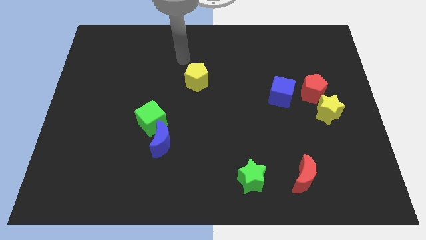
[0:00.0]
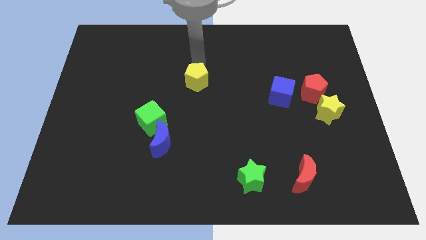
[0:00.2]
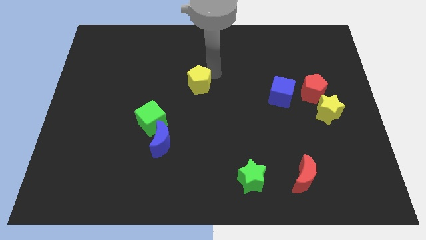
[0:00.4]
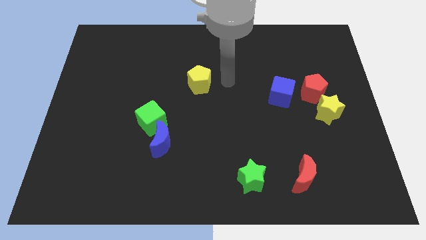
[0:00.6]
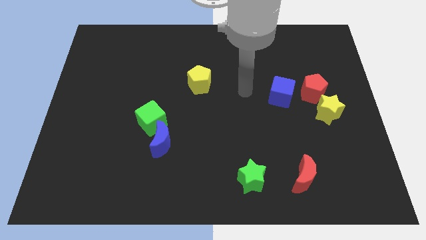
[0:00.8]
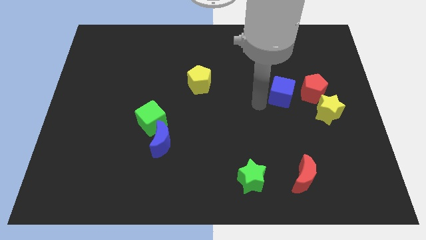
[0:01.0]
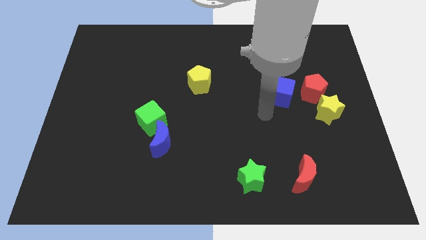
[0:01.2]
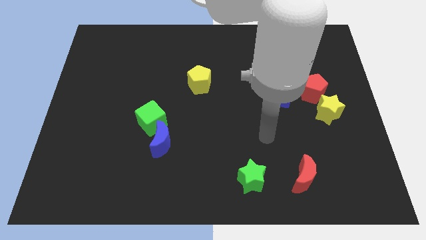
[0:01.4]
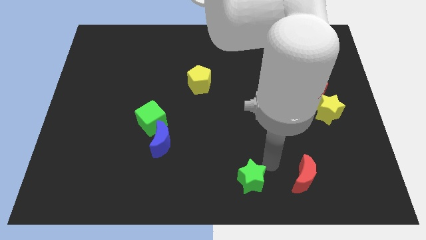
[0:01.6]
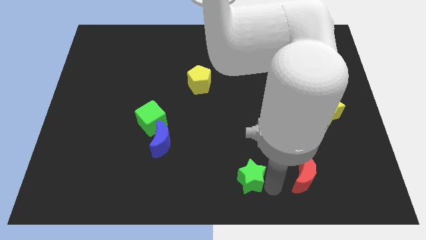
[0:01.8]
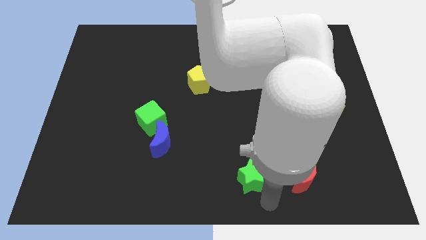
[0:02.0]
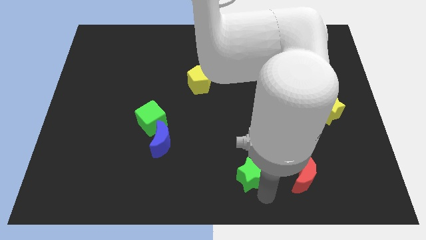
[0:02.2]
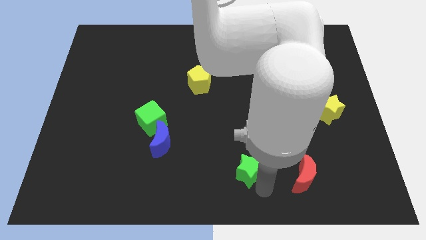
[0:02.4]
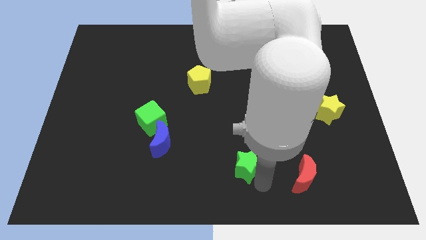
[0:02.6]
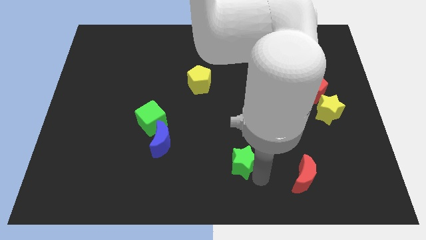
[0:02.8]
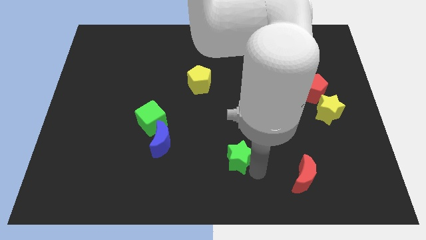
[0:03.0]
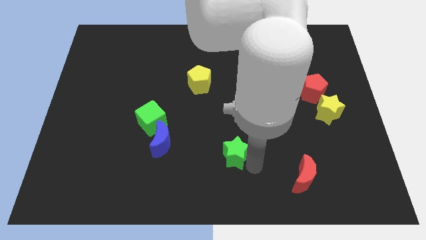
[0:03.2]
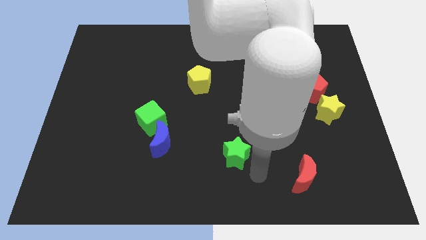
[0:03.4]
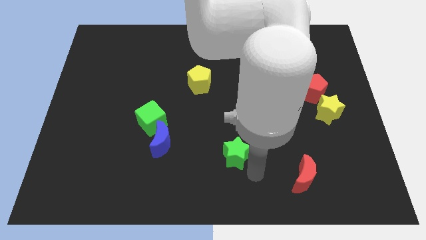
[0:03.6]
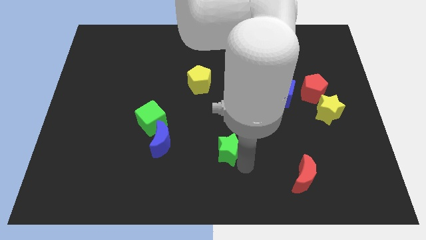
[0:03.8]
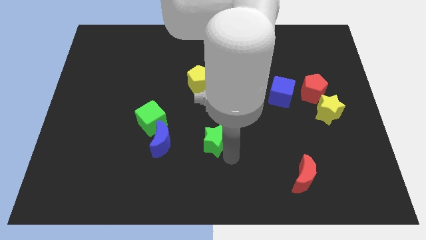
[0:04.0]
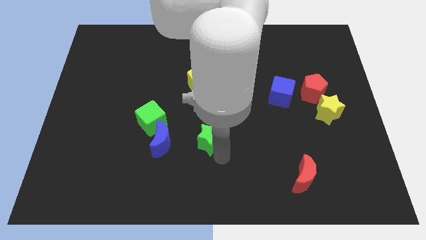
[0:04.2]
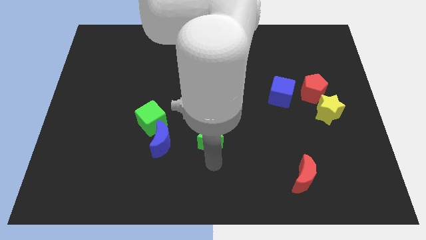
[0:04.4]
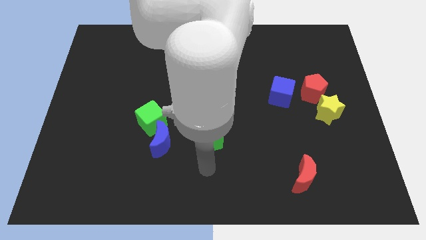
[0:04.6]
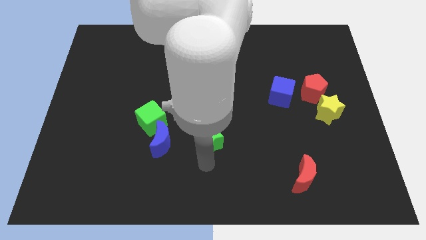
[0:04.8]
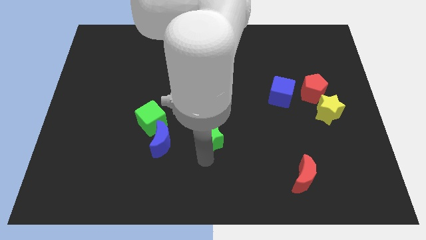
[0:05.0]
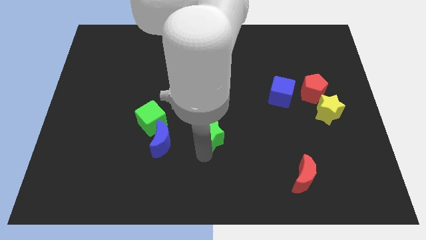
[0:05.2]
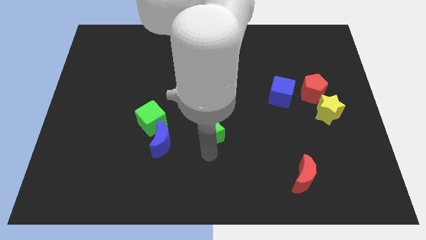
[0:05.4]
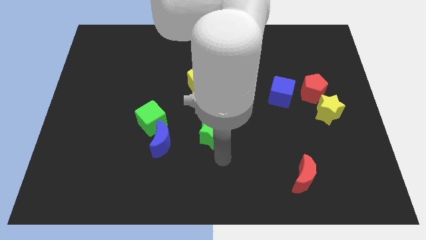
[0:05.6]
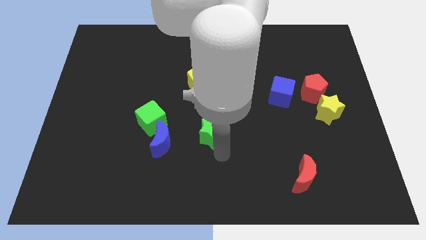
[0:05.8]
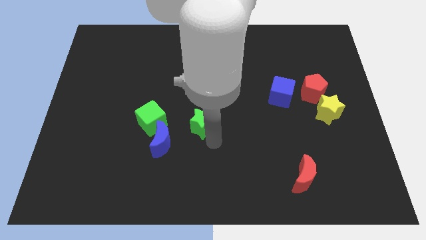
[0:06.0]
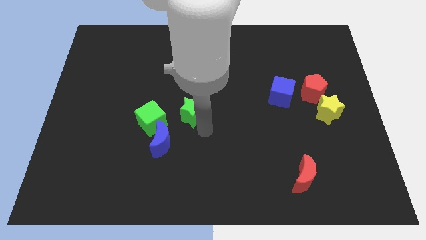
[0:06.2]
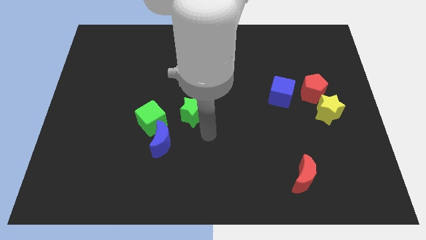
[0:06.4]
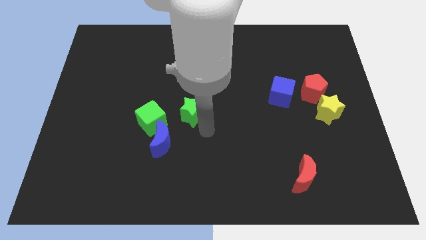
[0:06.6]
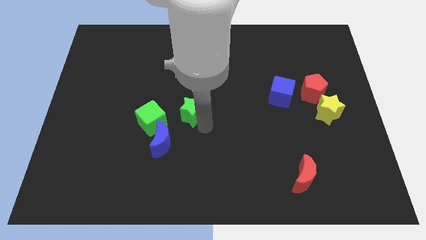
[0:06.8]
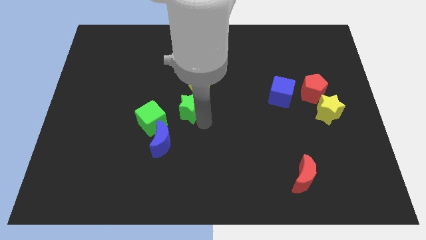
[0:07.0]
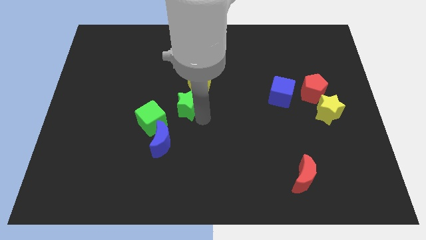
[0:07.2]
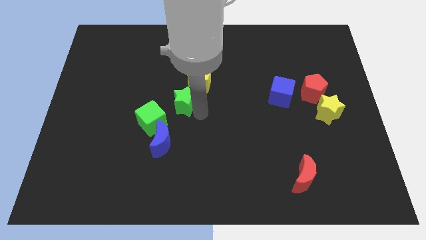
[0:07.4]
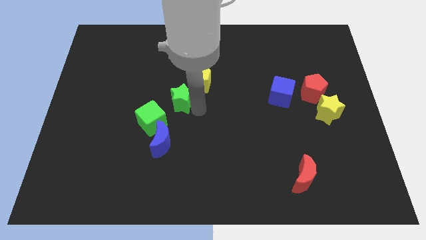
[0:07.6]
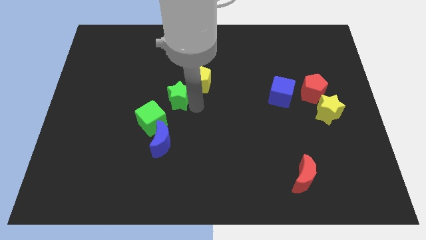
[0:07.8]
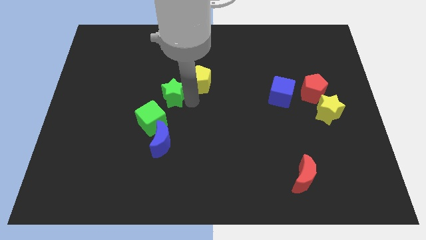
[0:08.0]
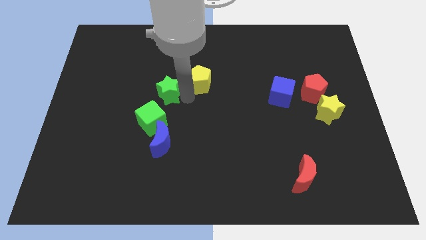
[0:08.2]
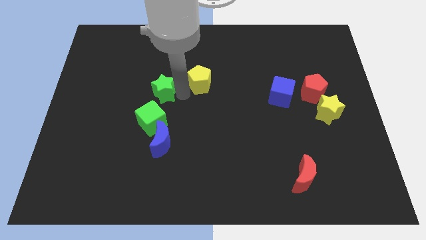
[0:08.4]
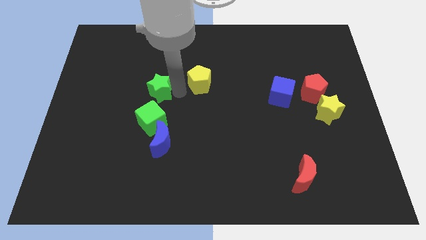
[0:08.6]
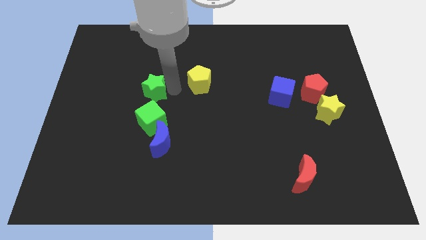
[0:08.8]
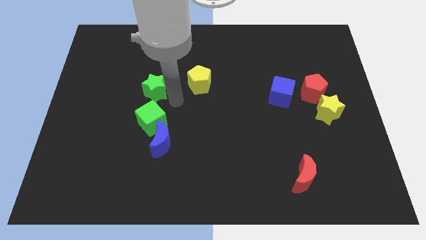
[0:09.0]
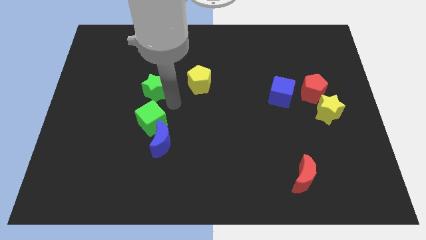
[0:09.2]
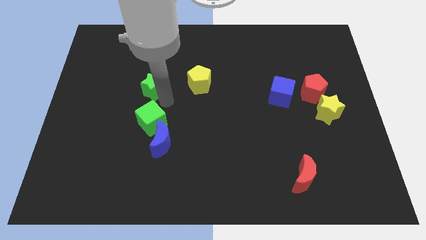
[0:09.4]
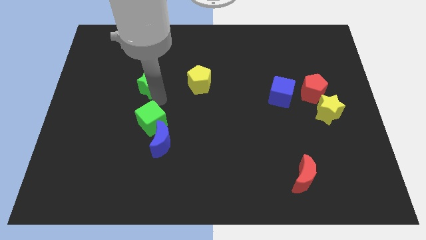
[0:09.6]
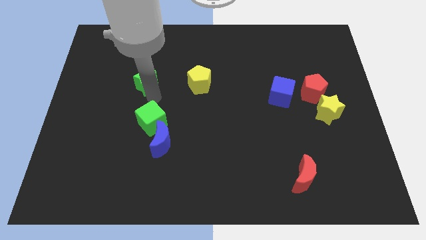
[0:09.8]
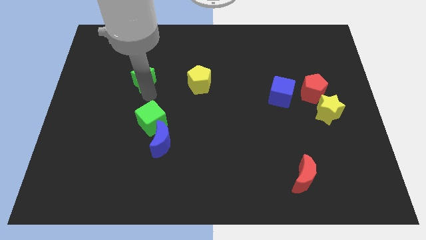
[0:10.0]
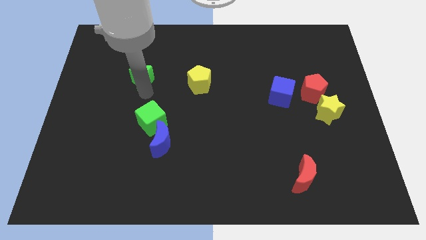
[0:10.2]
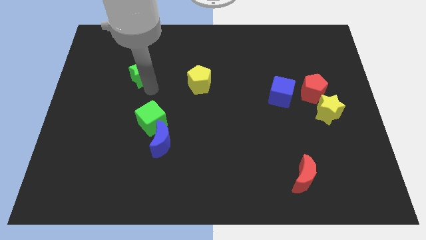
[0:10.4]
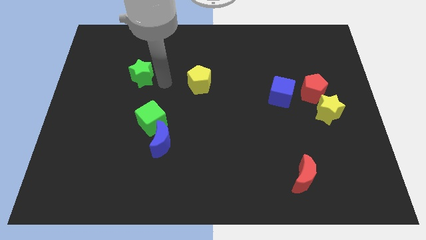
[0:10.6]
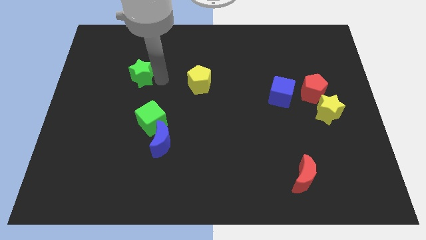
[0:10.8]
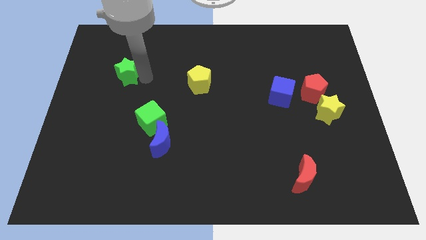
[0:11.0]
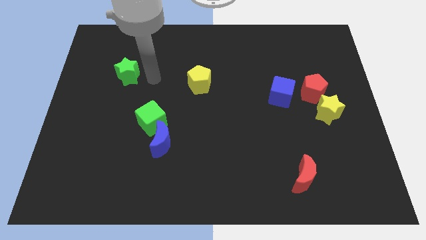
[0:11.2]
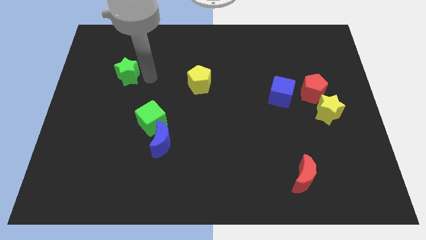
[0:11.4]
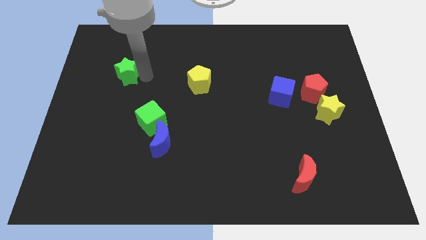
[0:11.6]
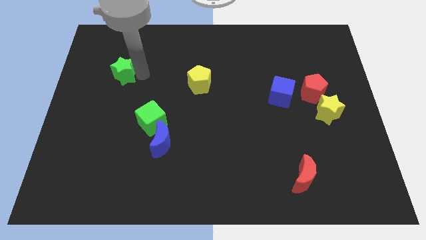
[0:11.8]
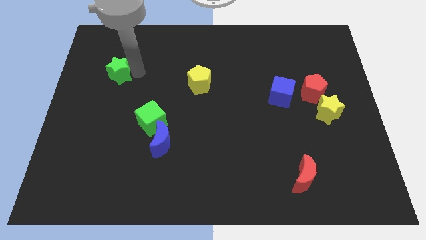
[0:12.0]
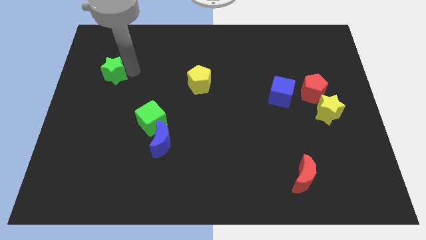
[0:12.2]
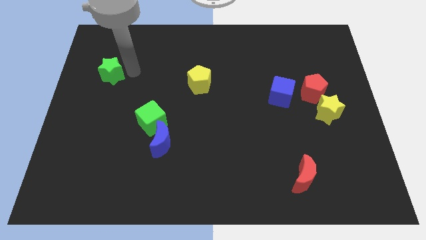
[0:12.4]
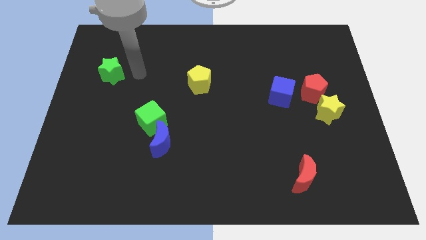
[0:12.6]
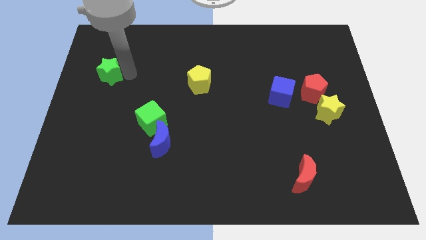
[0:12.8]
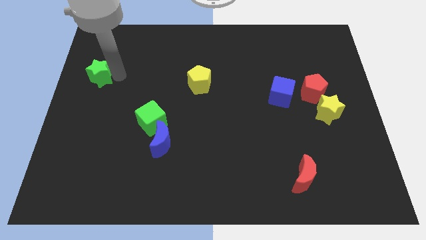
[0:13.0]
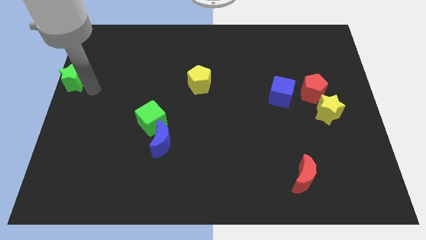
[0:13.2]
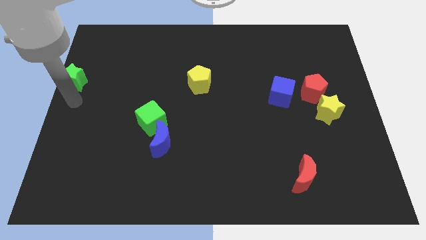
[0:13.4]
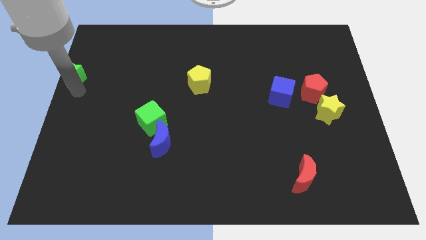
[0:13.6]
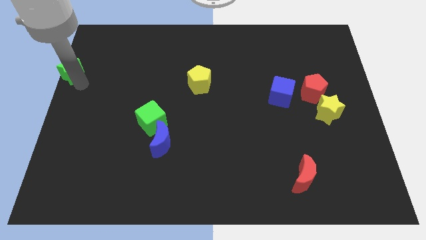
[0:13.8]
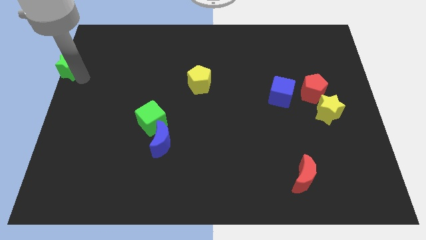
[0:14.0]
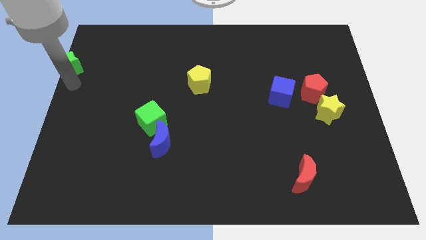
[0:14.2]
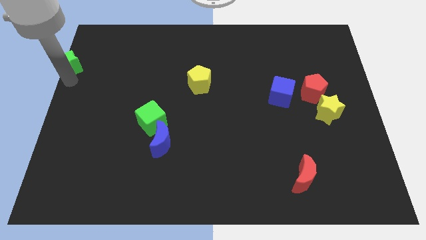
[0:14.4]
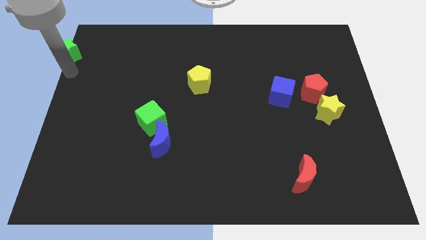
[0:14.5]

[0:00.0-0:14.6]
put the green star to the top left corner
